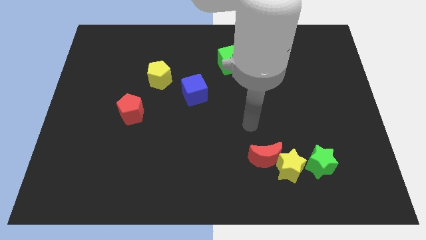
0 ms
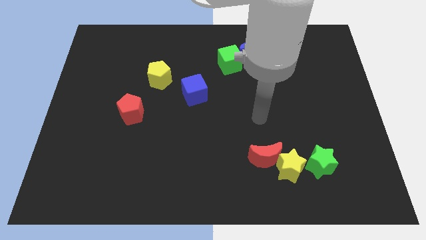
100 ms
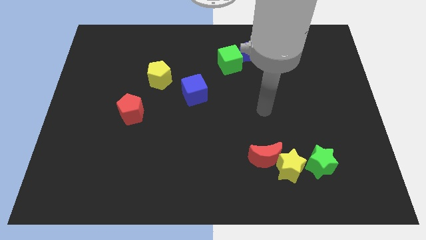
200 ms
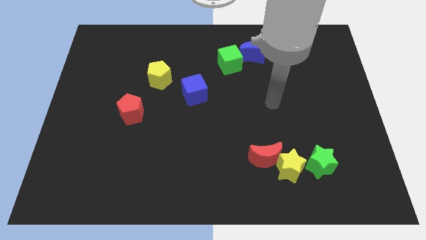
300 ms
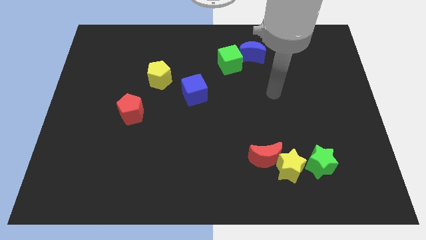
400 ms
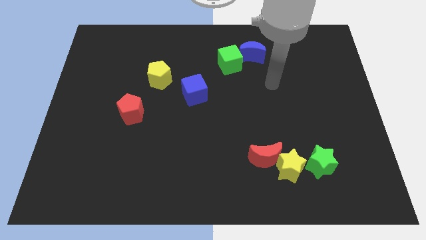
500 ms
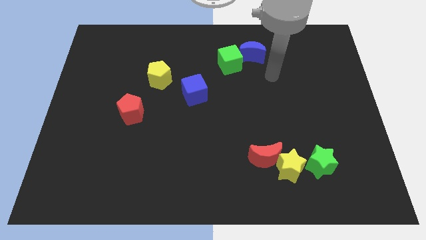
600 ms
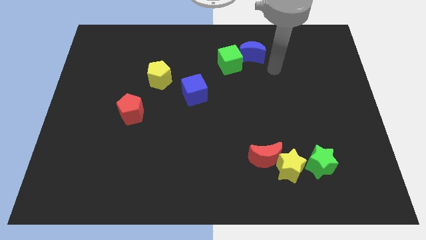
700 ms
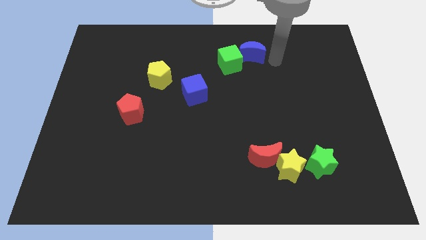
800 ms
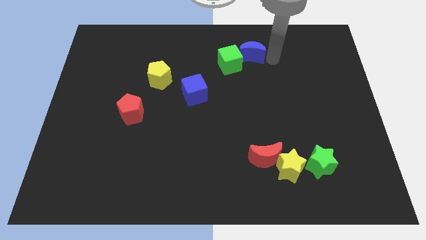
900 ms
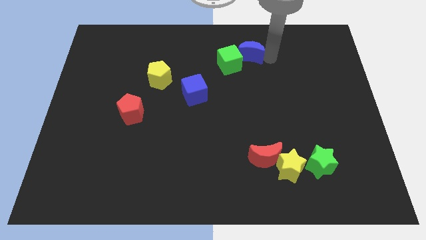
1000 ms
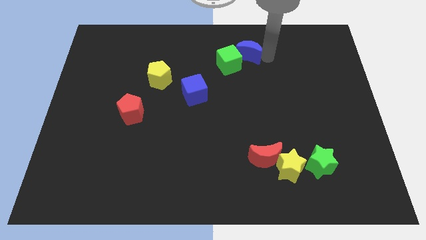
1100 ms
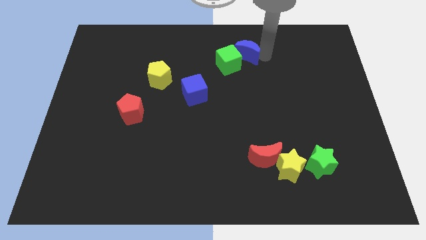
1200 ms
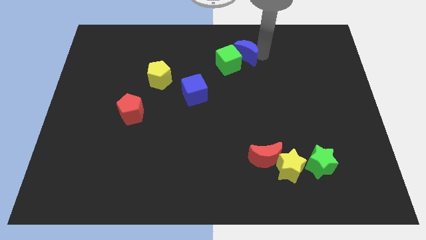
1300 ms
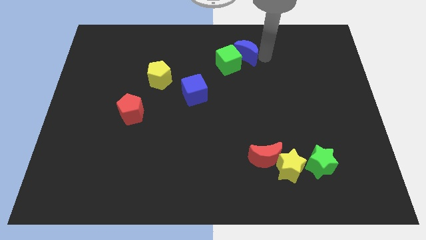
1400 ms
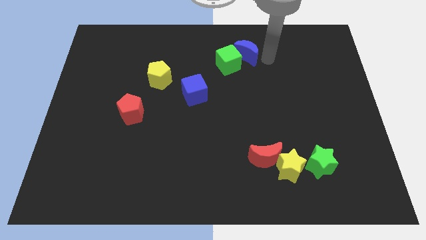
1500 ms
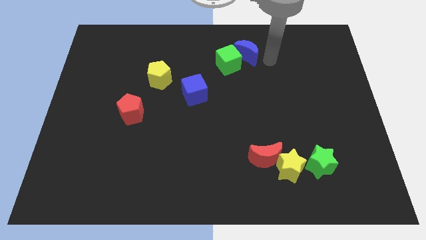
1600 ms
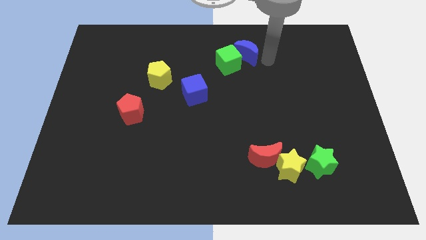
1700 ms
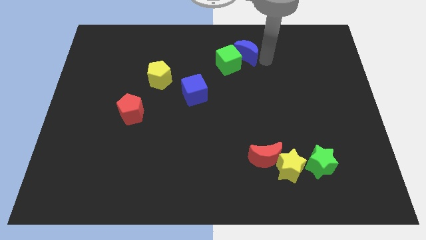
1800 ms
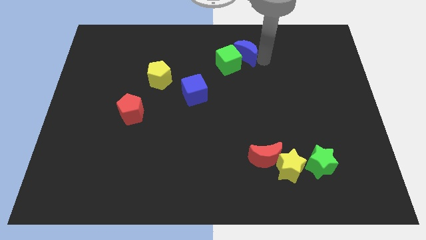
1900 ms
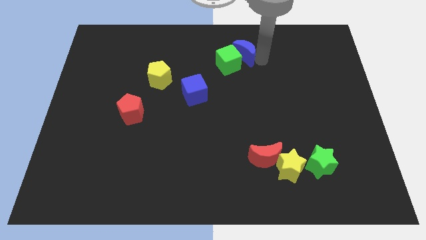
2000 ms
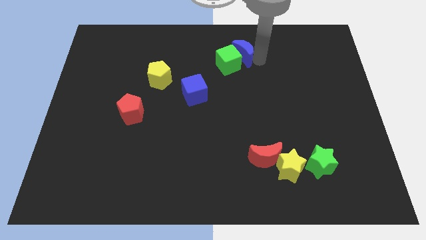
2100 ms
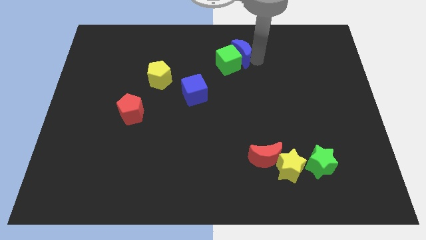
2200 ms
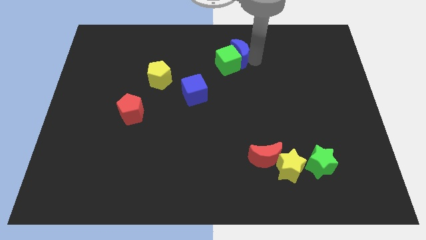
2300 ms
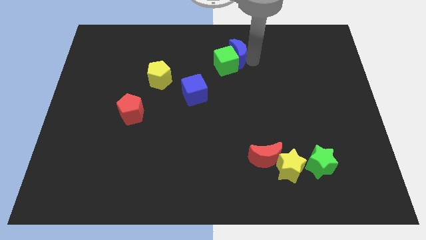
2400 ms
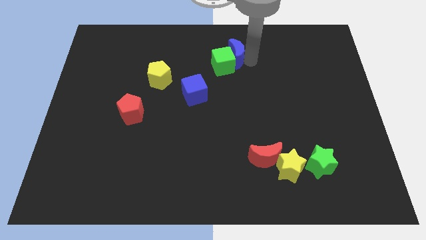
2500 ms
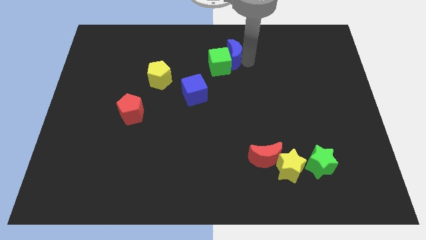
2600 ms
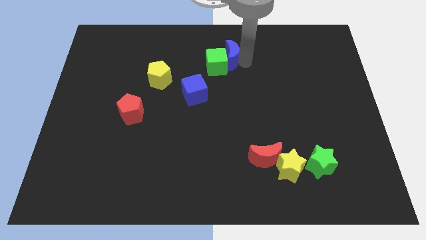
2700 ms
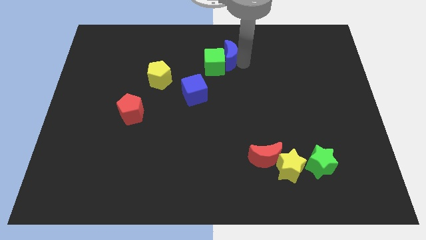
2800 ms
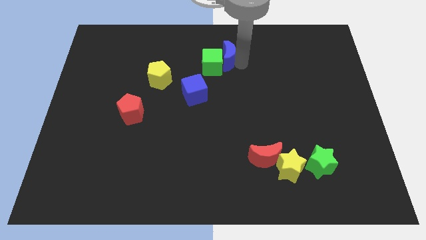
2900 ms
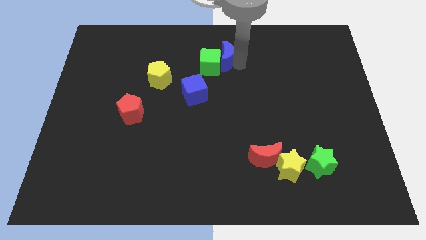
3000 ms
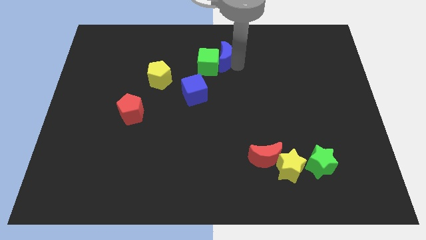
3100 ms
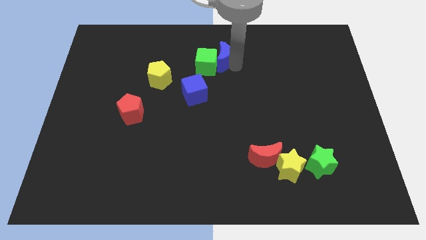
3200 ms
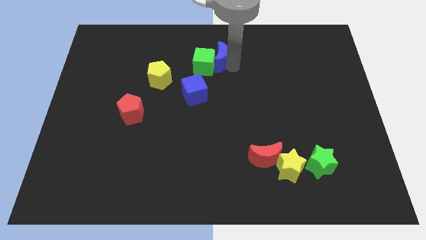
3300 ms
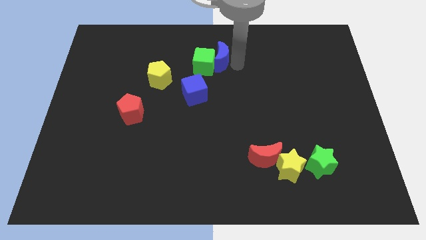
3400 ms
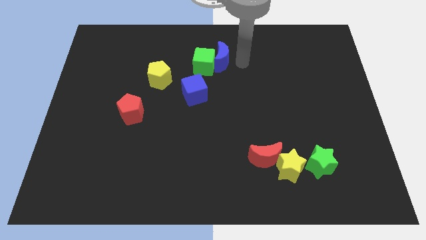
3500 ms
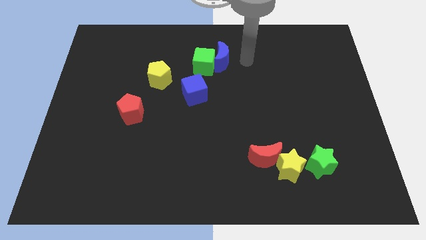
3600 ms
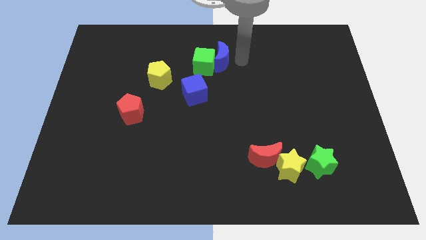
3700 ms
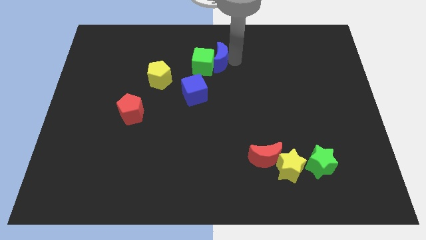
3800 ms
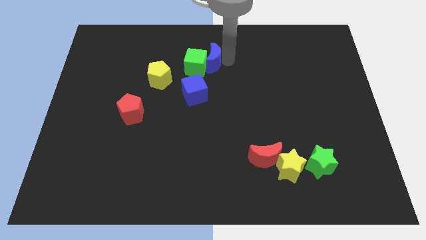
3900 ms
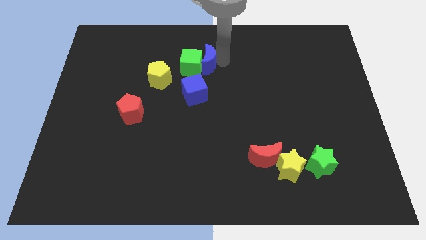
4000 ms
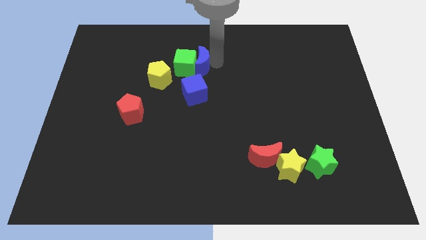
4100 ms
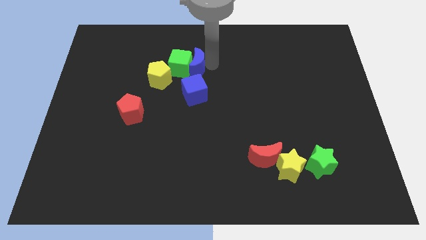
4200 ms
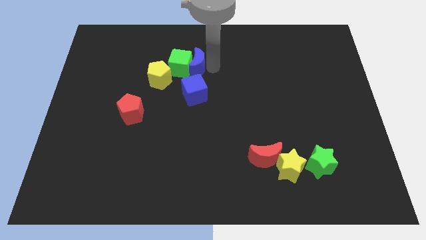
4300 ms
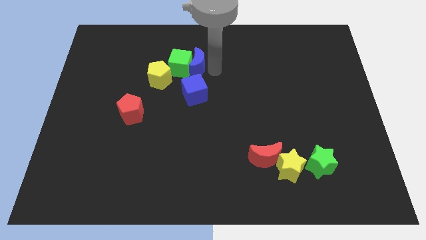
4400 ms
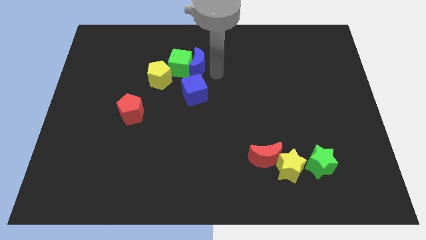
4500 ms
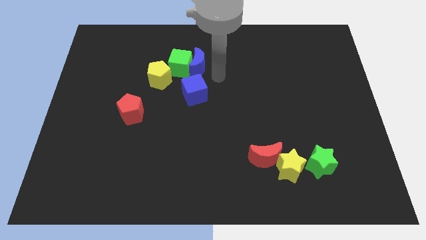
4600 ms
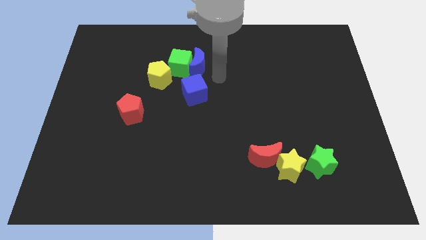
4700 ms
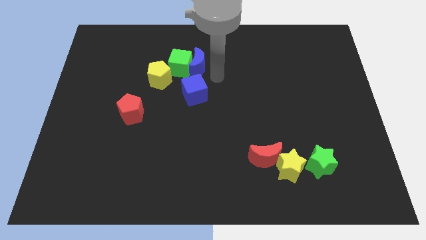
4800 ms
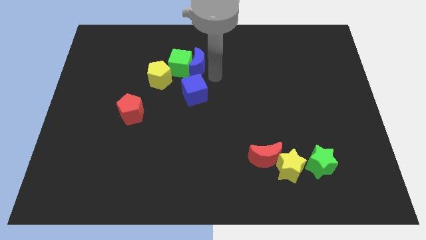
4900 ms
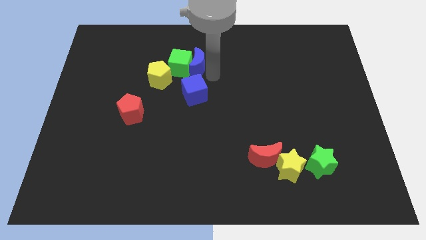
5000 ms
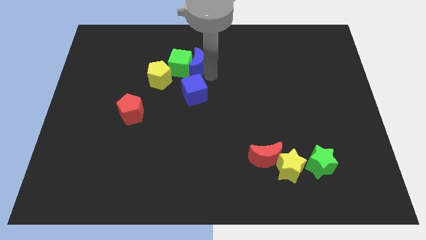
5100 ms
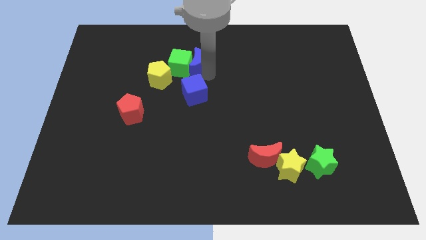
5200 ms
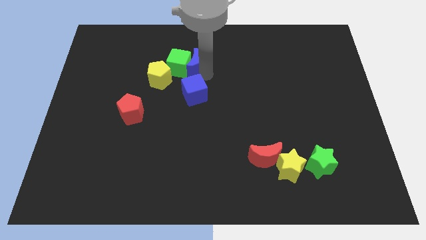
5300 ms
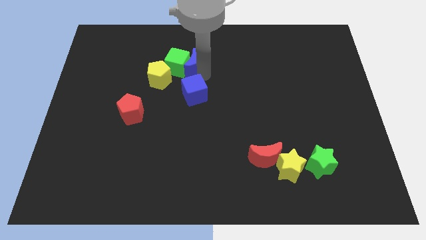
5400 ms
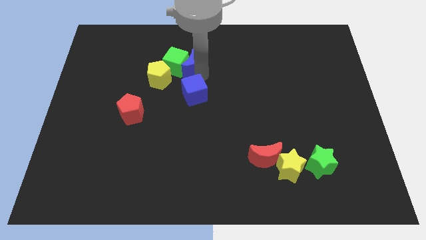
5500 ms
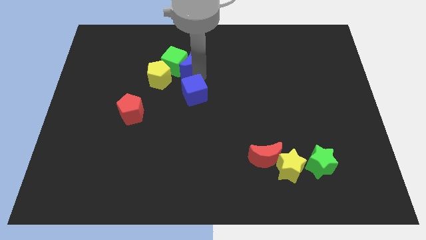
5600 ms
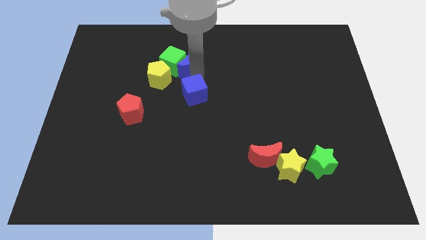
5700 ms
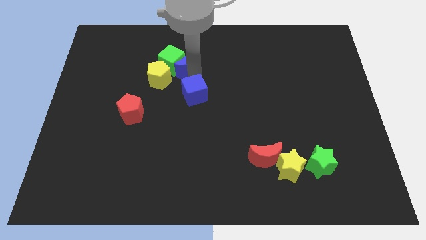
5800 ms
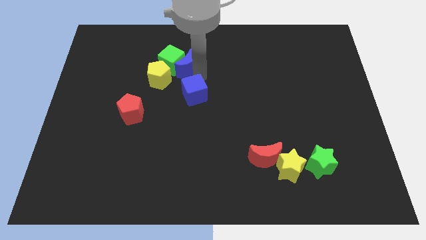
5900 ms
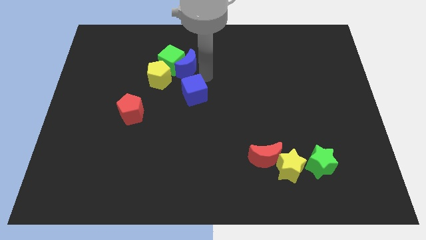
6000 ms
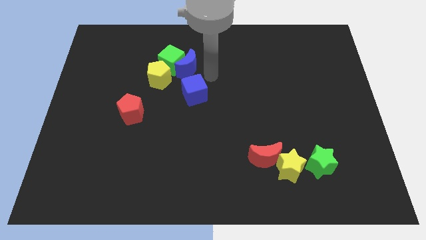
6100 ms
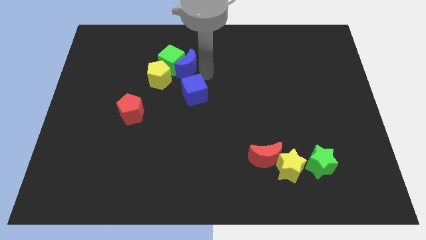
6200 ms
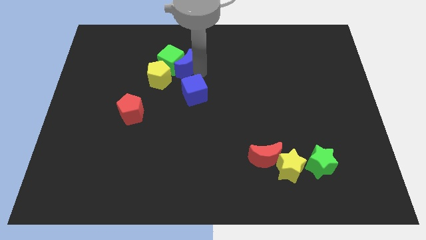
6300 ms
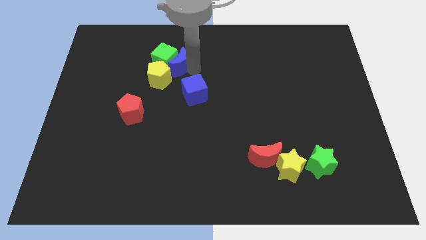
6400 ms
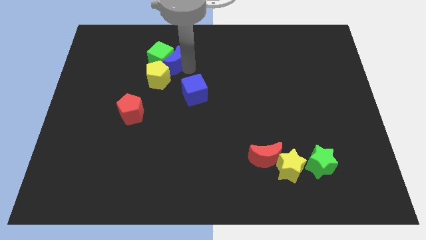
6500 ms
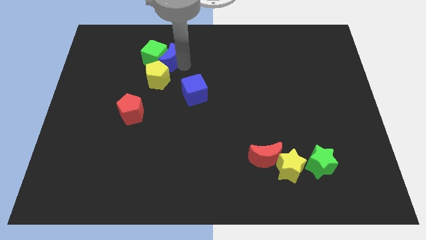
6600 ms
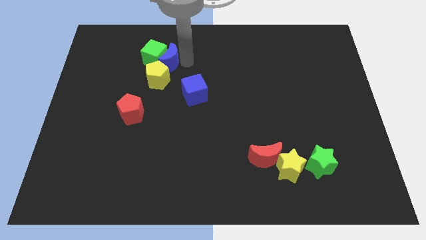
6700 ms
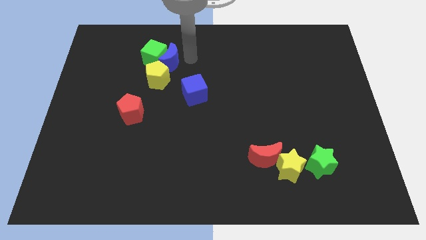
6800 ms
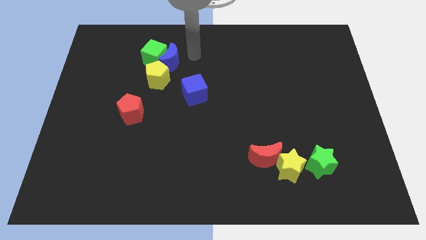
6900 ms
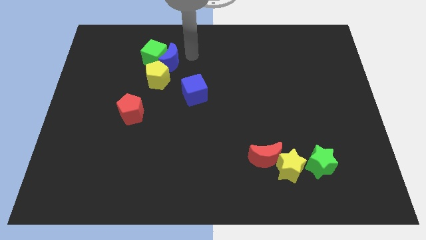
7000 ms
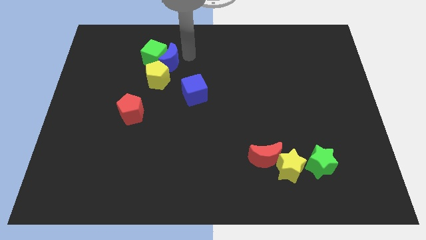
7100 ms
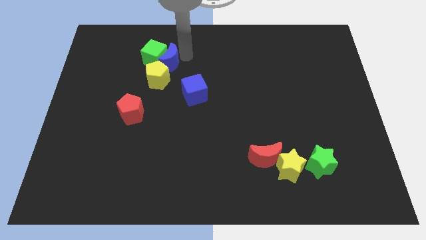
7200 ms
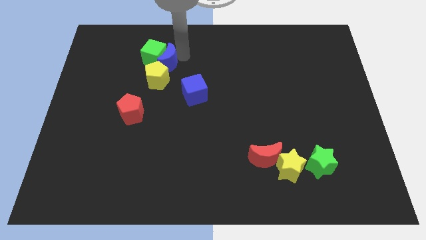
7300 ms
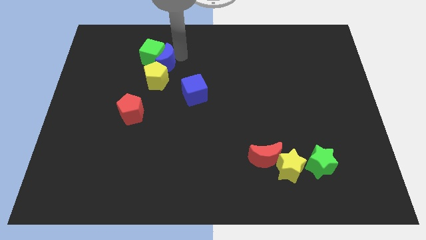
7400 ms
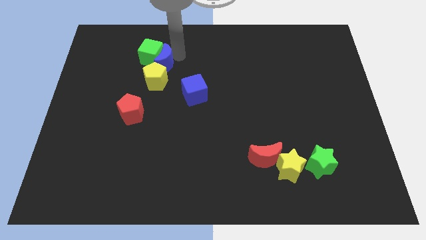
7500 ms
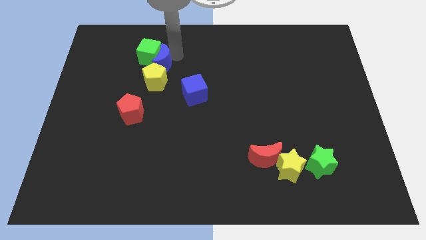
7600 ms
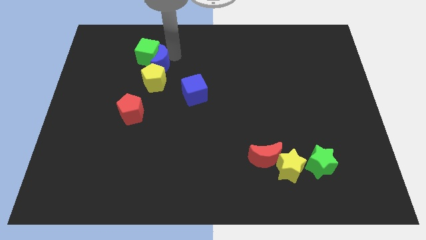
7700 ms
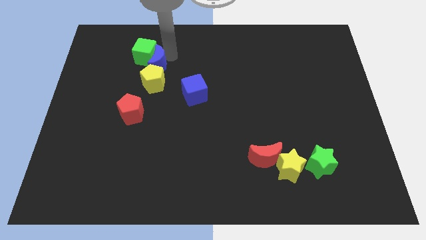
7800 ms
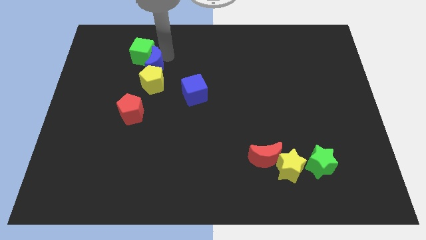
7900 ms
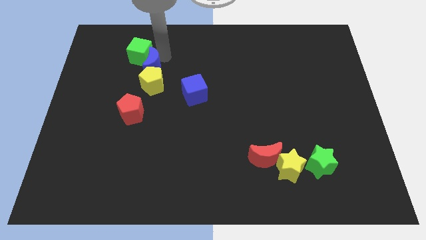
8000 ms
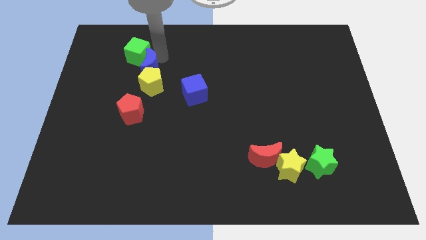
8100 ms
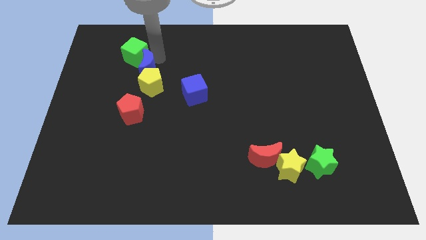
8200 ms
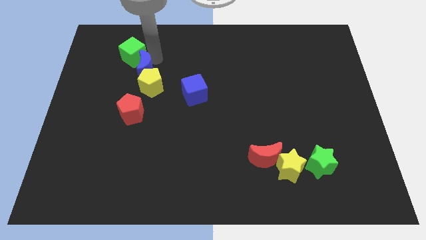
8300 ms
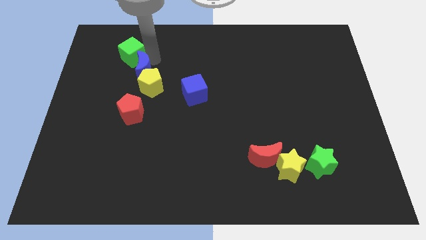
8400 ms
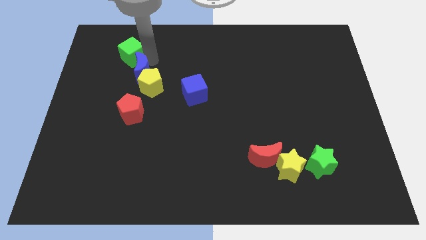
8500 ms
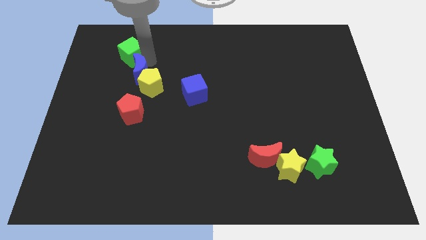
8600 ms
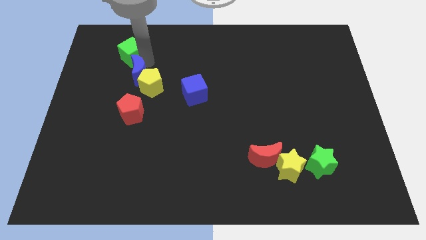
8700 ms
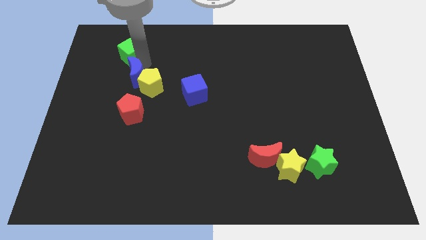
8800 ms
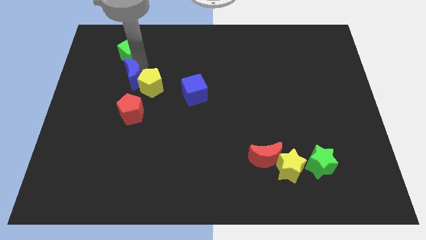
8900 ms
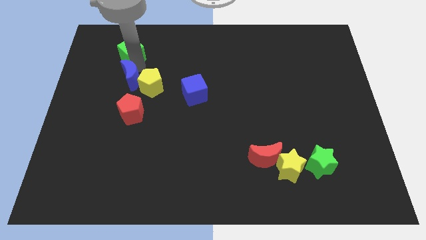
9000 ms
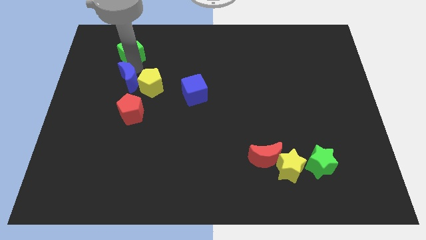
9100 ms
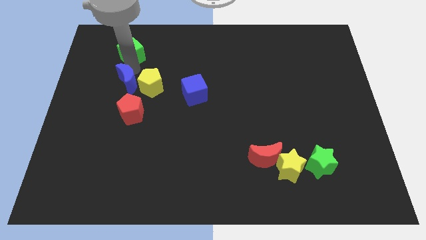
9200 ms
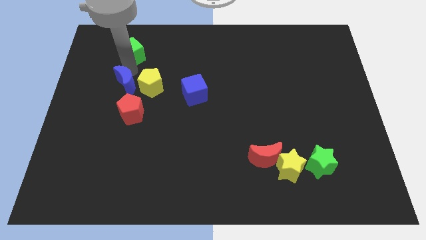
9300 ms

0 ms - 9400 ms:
move the blue moon to the top left of the red pentagon
